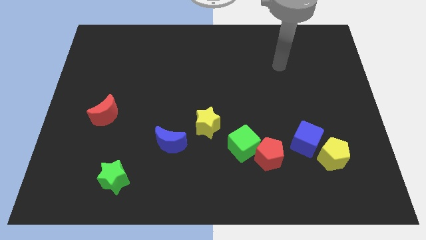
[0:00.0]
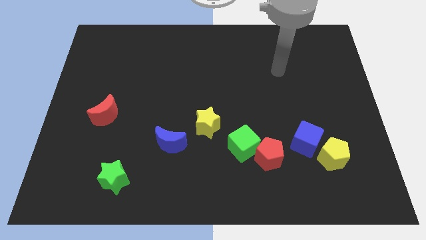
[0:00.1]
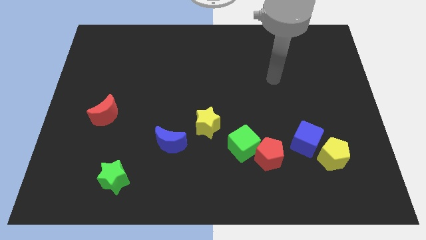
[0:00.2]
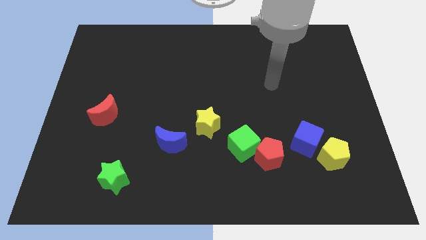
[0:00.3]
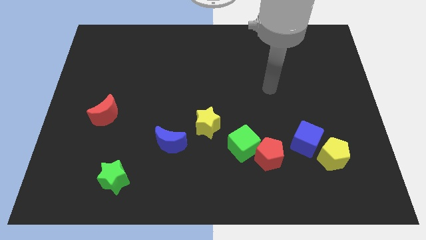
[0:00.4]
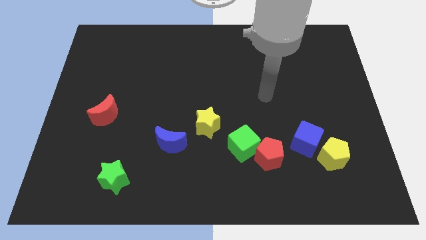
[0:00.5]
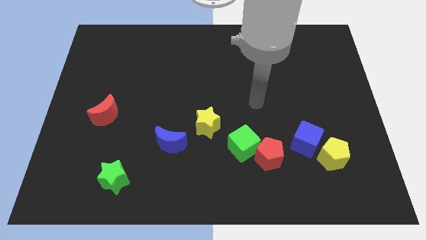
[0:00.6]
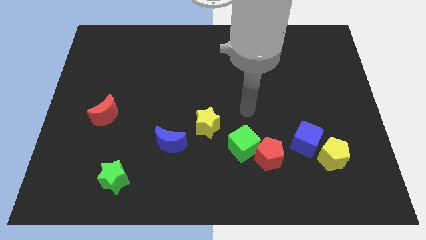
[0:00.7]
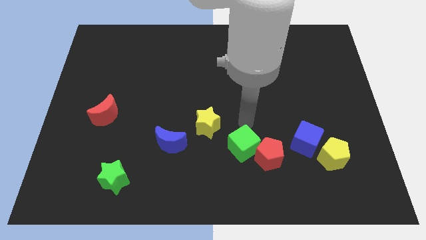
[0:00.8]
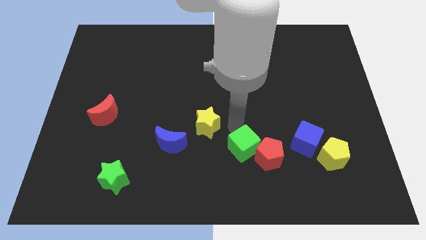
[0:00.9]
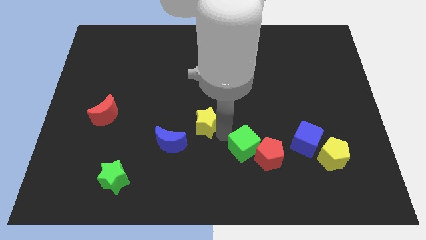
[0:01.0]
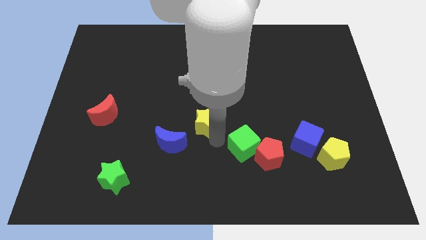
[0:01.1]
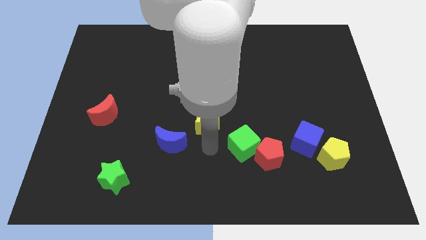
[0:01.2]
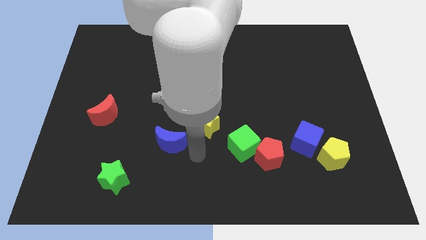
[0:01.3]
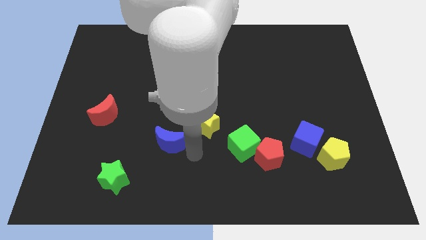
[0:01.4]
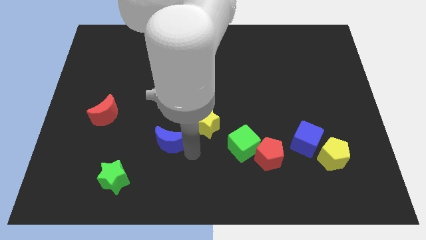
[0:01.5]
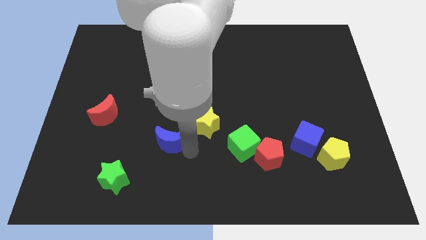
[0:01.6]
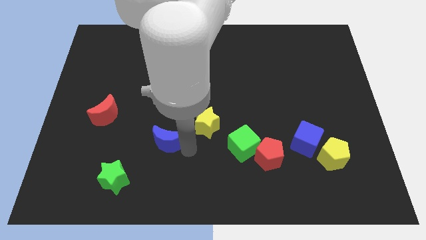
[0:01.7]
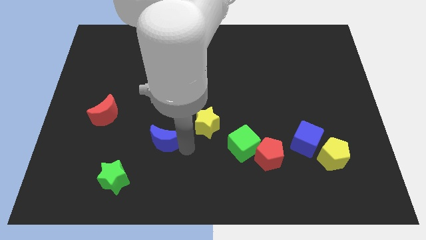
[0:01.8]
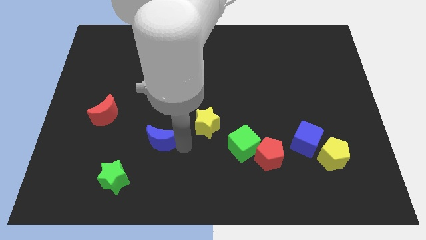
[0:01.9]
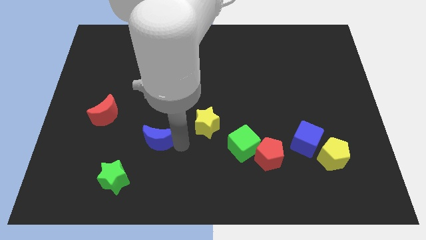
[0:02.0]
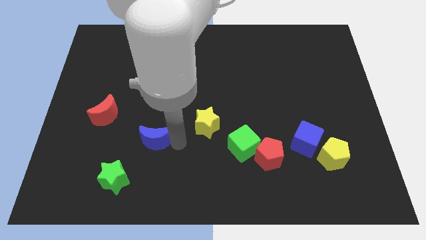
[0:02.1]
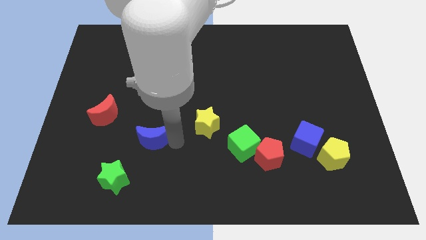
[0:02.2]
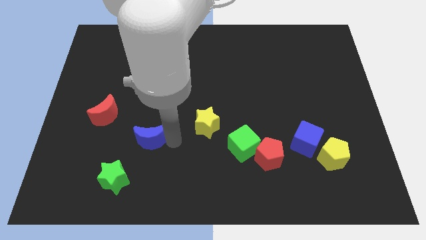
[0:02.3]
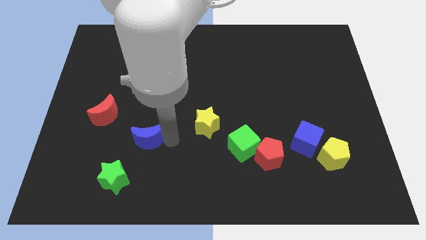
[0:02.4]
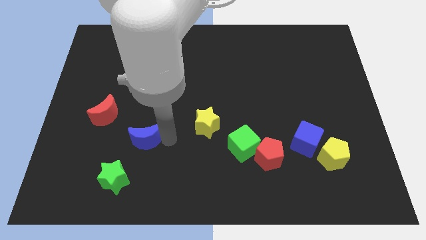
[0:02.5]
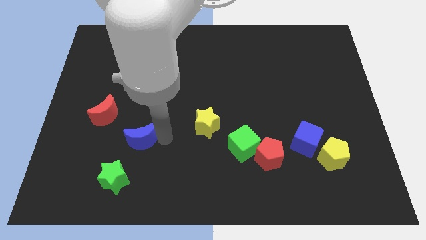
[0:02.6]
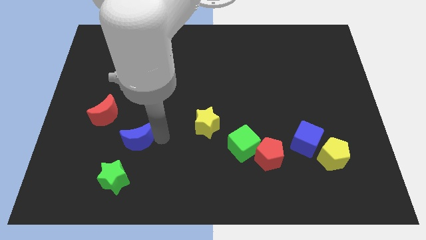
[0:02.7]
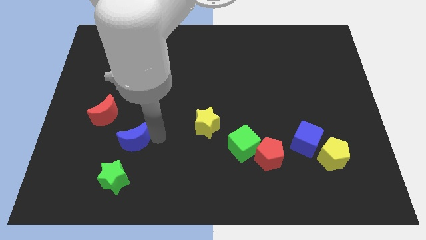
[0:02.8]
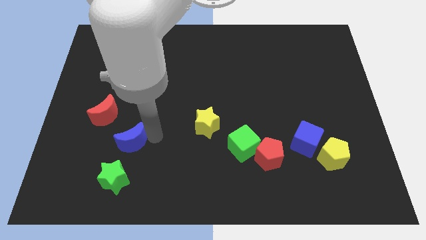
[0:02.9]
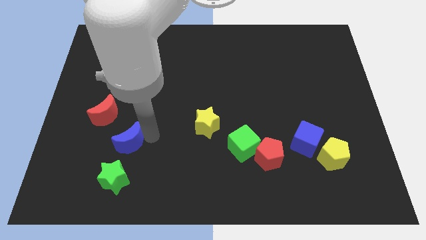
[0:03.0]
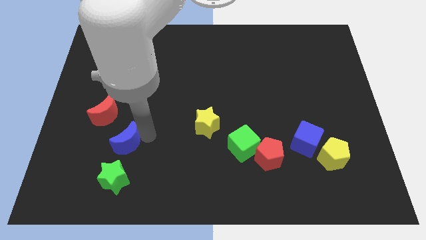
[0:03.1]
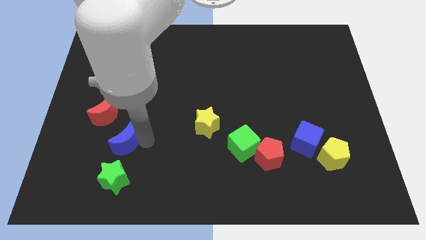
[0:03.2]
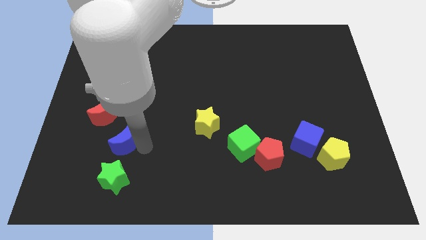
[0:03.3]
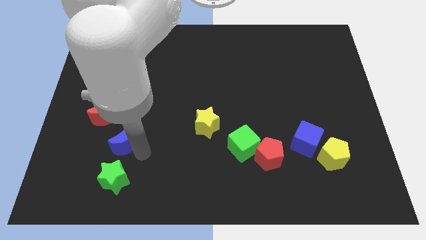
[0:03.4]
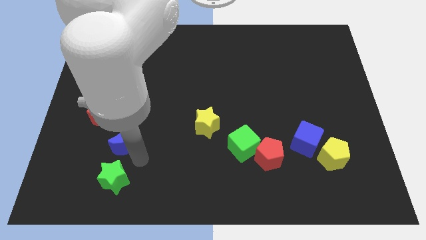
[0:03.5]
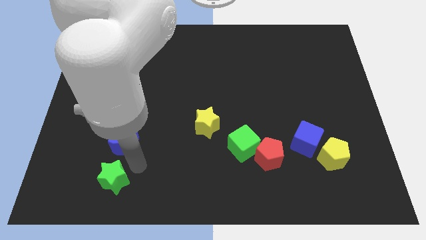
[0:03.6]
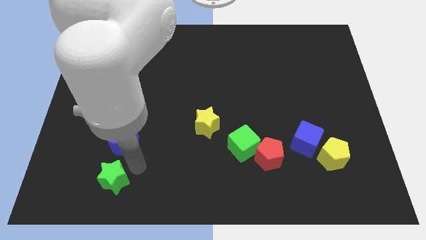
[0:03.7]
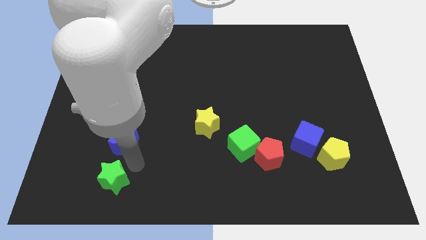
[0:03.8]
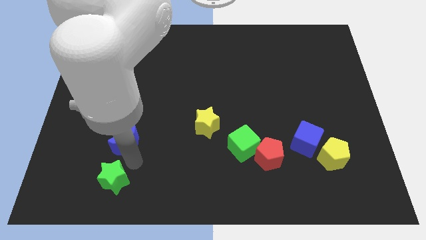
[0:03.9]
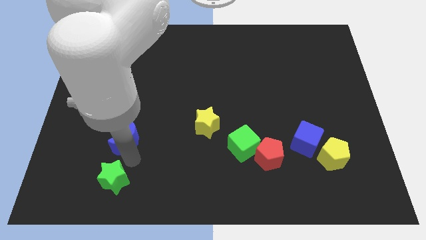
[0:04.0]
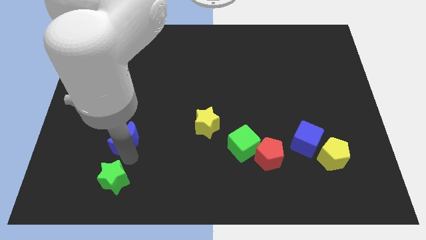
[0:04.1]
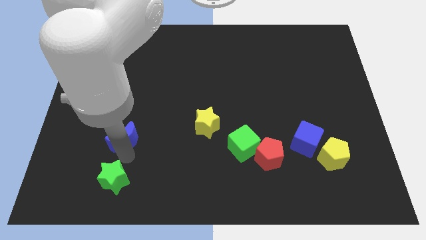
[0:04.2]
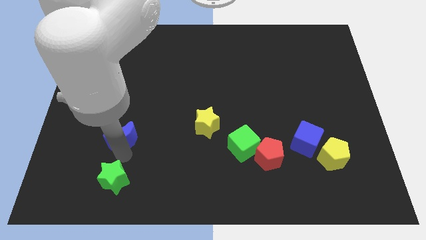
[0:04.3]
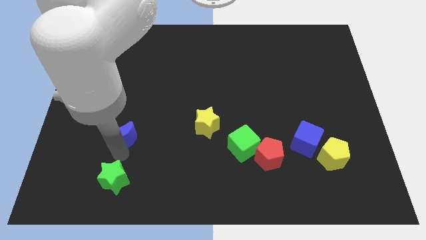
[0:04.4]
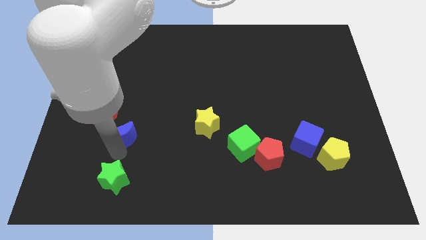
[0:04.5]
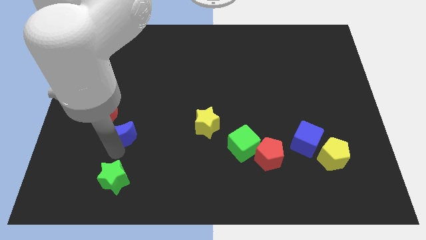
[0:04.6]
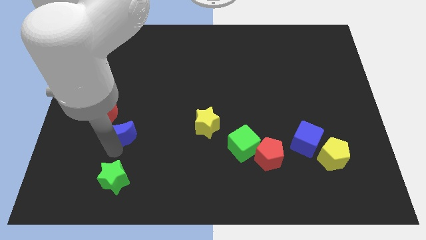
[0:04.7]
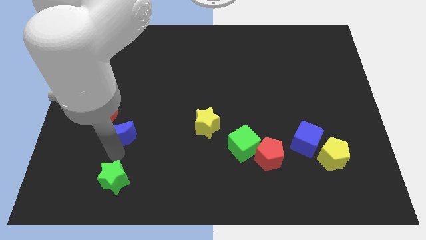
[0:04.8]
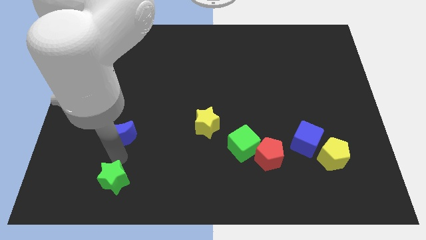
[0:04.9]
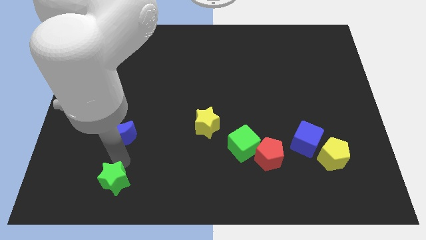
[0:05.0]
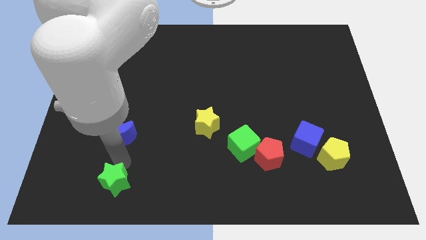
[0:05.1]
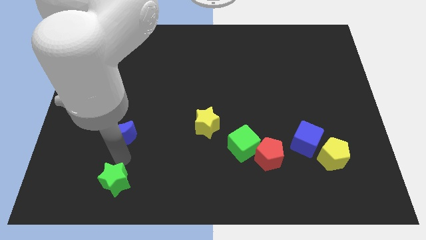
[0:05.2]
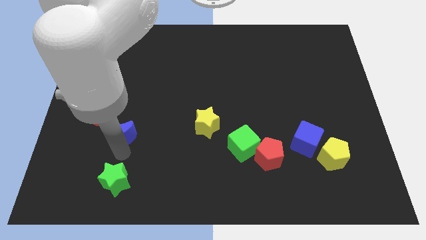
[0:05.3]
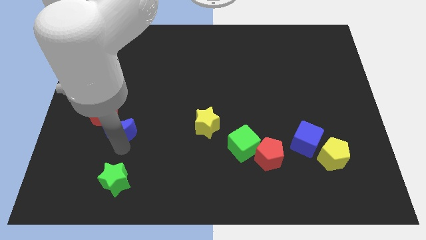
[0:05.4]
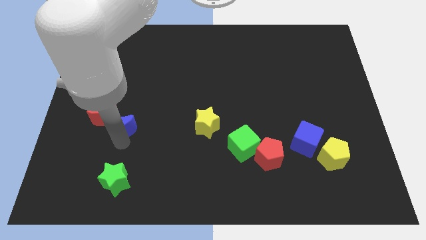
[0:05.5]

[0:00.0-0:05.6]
move the blue moon close to the red moon

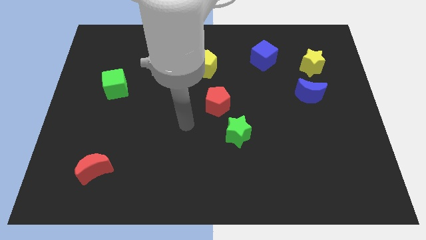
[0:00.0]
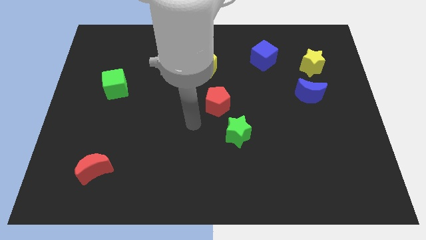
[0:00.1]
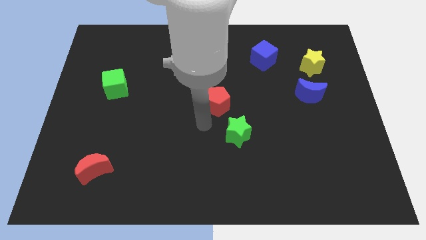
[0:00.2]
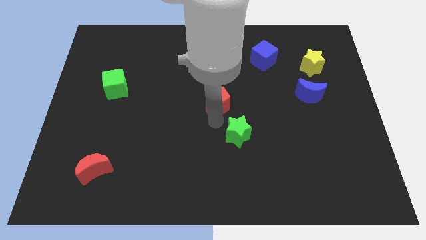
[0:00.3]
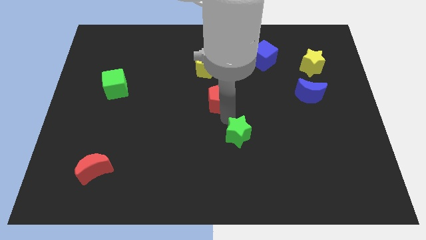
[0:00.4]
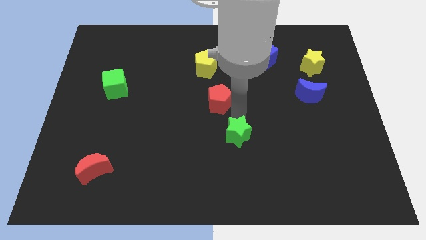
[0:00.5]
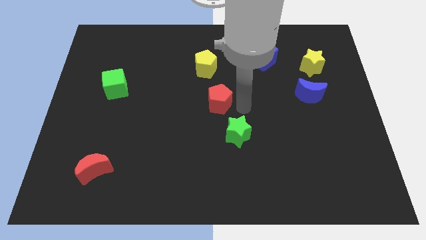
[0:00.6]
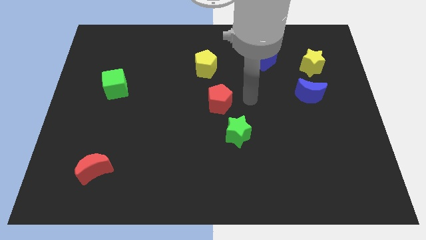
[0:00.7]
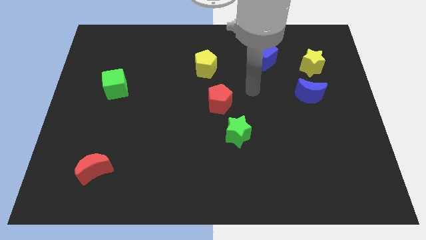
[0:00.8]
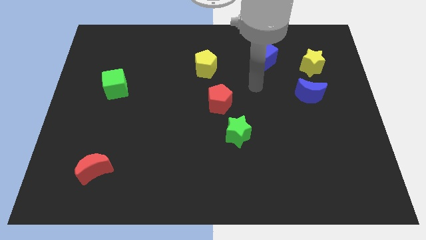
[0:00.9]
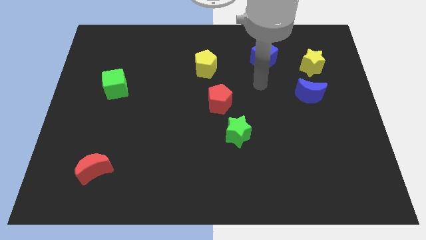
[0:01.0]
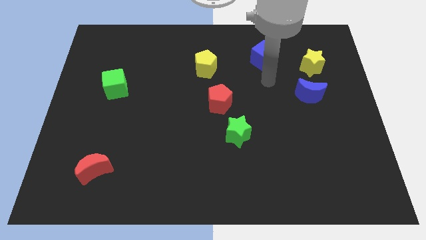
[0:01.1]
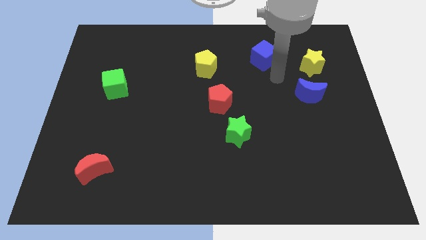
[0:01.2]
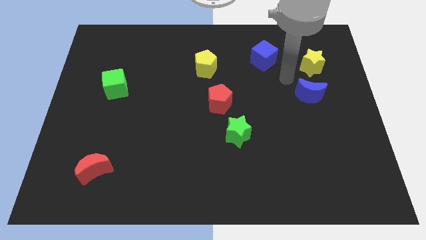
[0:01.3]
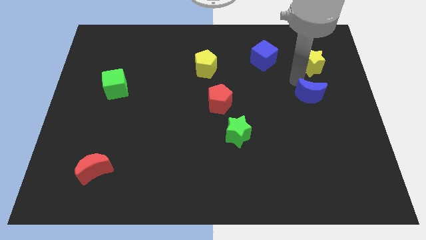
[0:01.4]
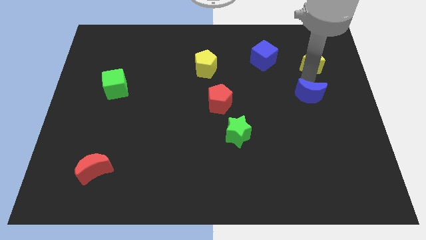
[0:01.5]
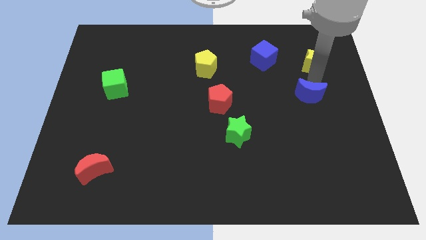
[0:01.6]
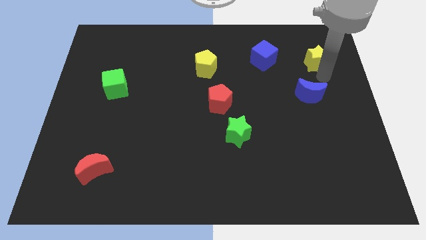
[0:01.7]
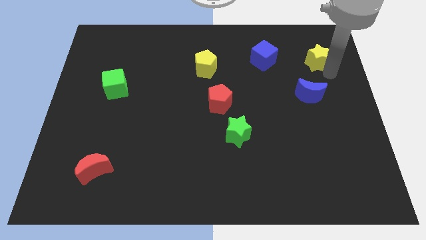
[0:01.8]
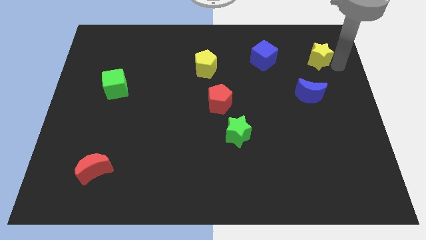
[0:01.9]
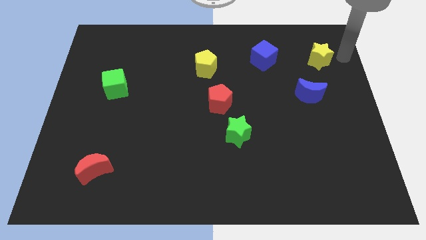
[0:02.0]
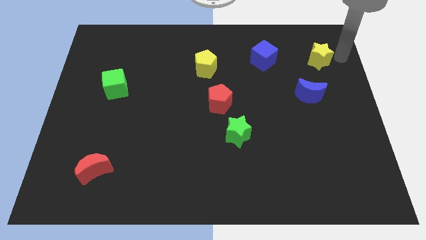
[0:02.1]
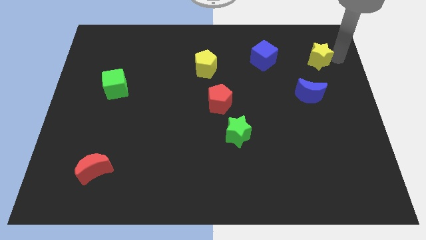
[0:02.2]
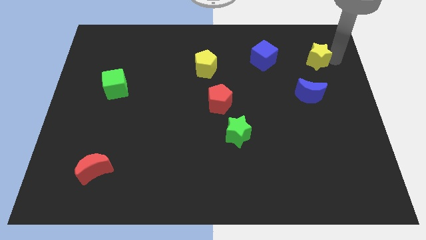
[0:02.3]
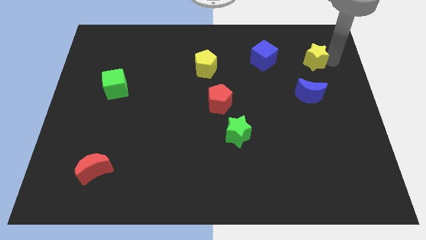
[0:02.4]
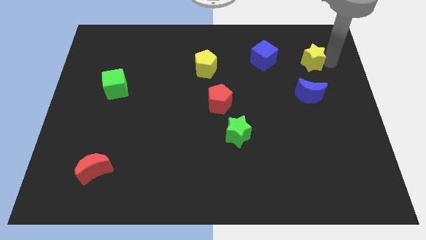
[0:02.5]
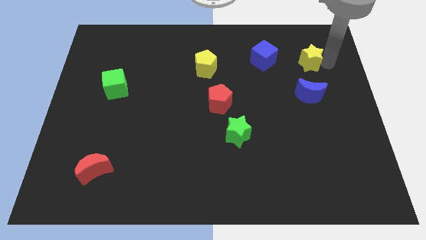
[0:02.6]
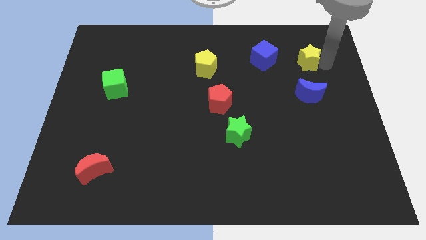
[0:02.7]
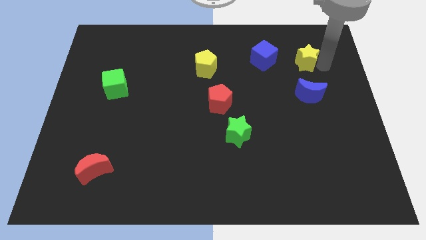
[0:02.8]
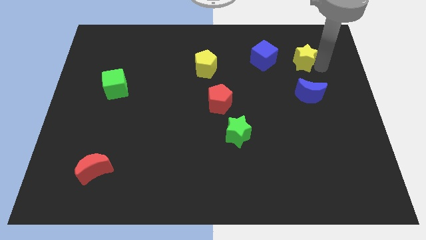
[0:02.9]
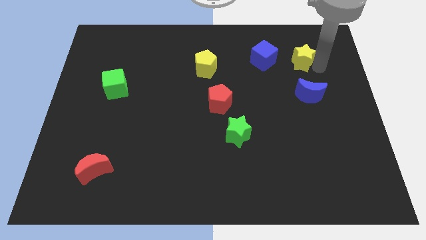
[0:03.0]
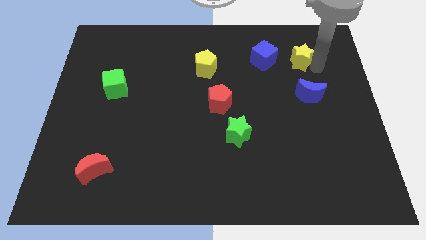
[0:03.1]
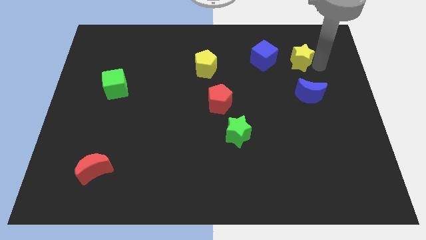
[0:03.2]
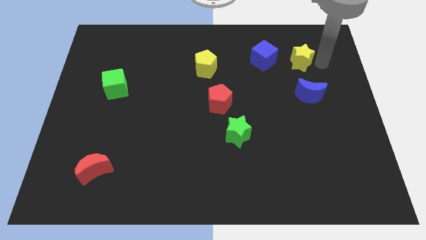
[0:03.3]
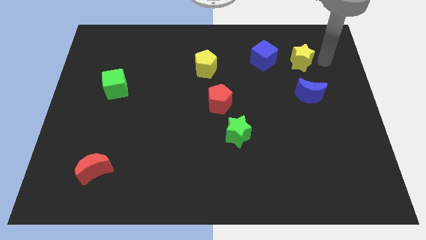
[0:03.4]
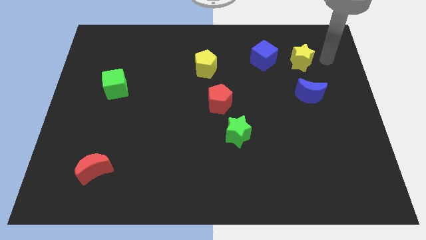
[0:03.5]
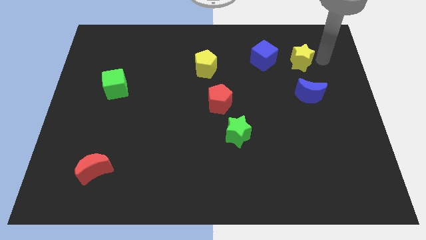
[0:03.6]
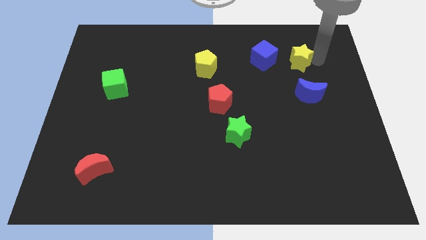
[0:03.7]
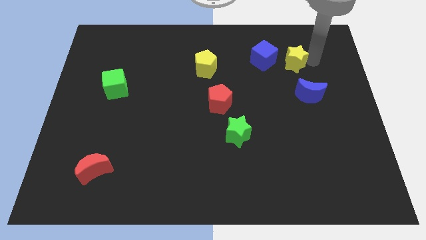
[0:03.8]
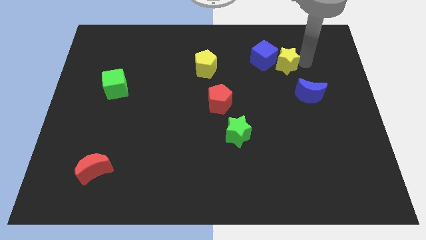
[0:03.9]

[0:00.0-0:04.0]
push the yellow star towards the blue cube
